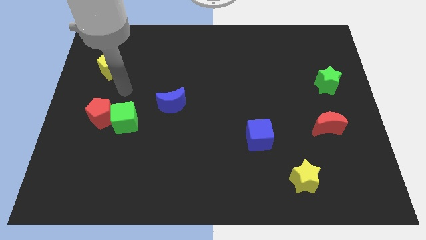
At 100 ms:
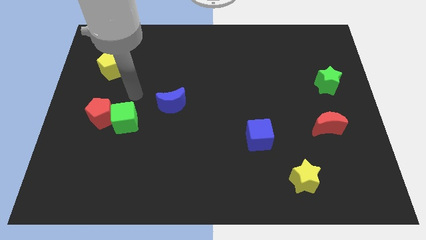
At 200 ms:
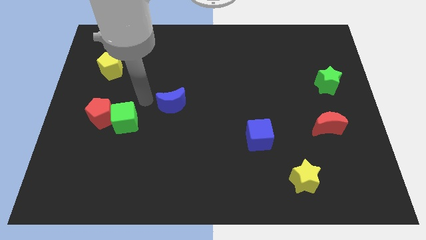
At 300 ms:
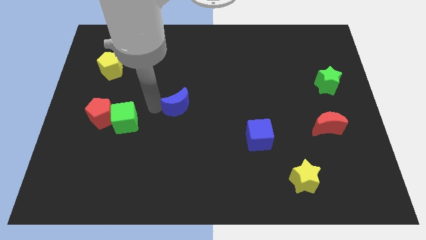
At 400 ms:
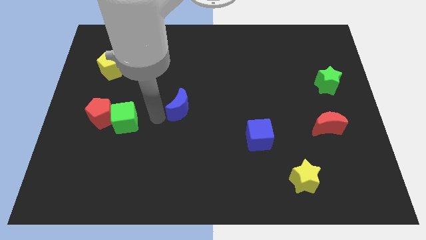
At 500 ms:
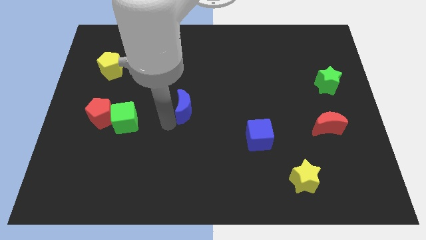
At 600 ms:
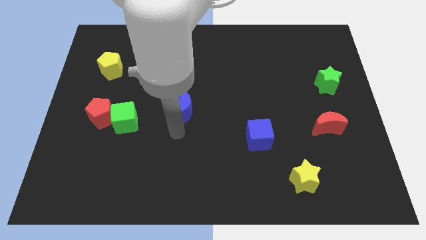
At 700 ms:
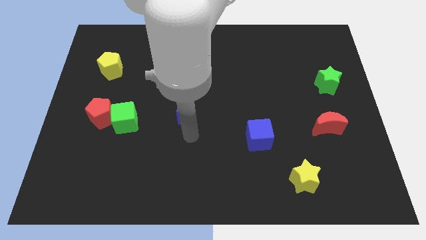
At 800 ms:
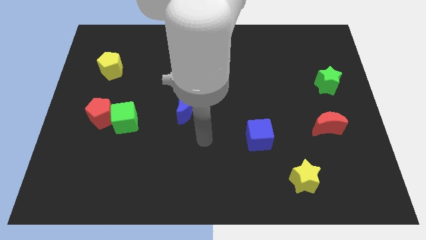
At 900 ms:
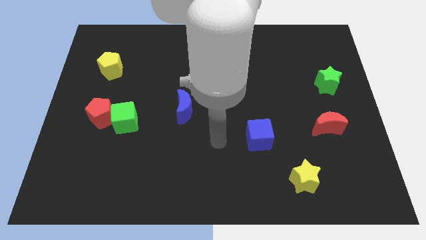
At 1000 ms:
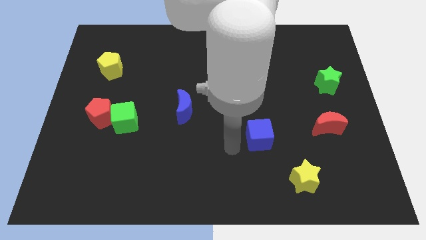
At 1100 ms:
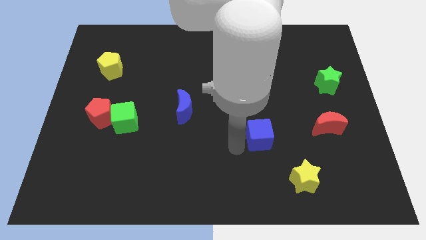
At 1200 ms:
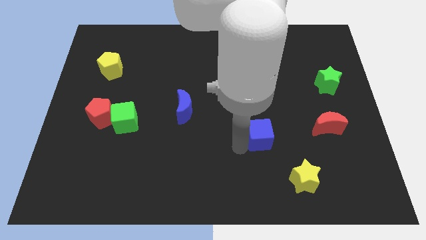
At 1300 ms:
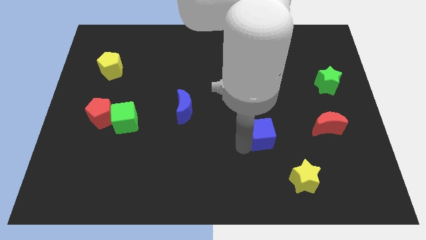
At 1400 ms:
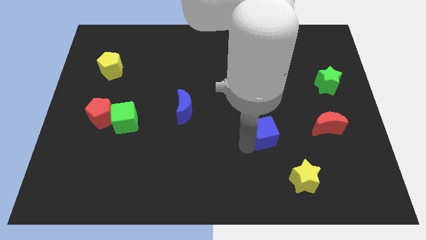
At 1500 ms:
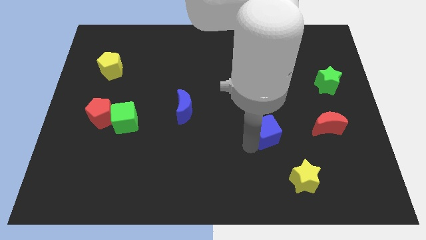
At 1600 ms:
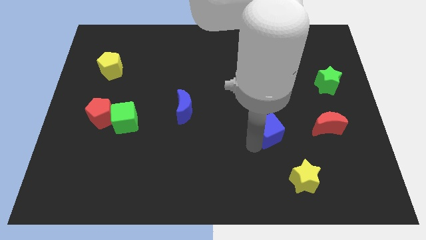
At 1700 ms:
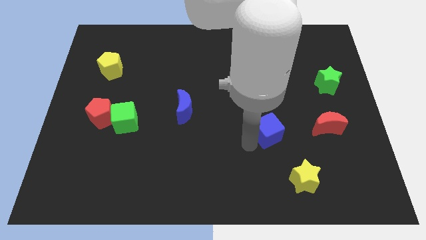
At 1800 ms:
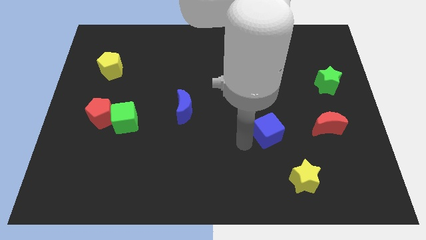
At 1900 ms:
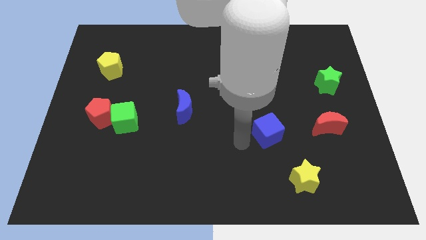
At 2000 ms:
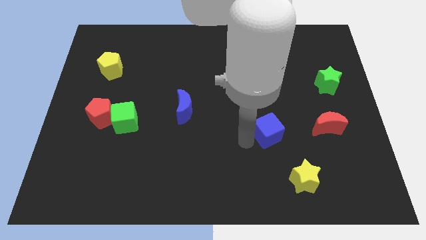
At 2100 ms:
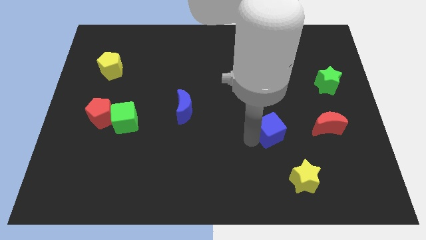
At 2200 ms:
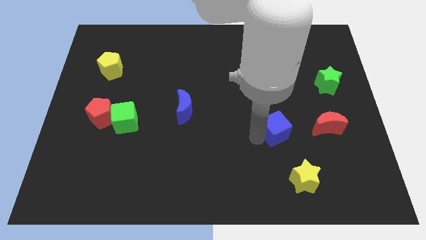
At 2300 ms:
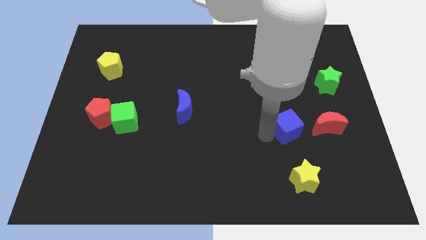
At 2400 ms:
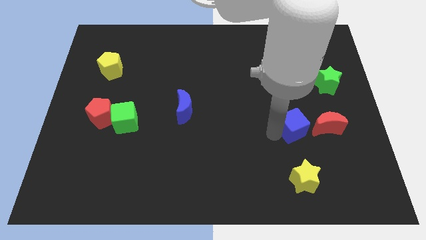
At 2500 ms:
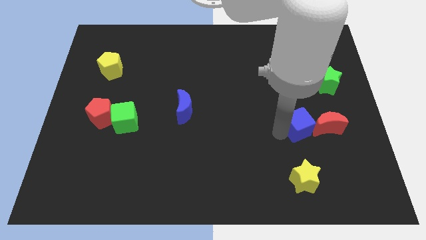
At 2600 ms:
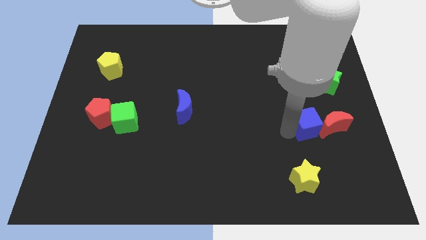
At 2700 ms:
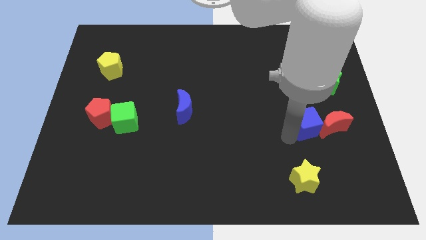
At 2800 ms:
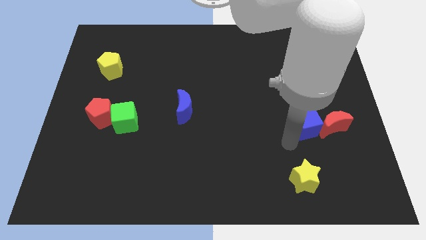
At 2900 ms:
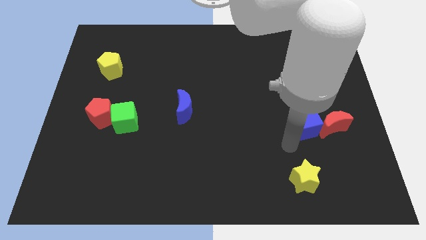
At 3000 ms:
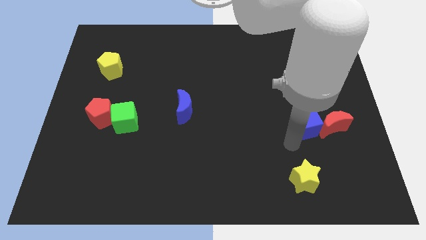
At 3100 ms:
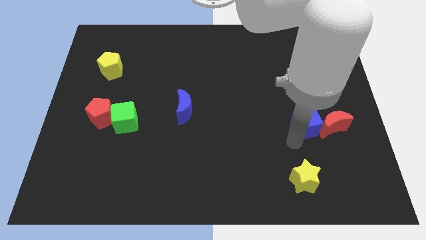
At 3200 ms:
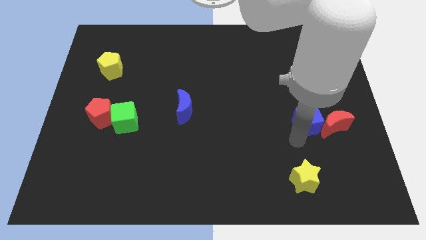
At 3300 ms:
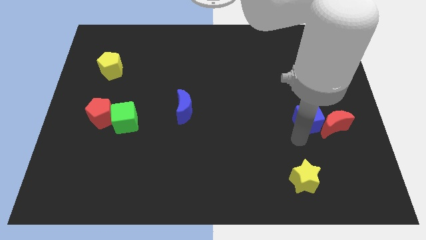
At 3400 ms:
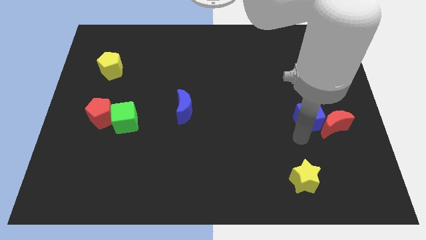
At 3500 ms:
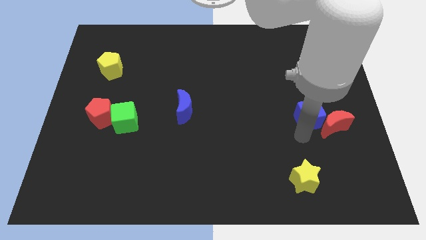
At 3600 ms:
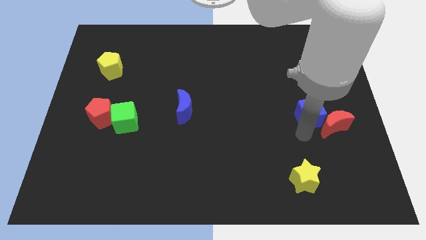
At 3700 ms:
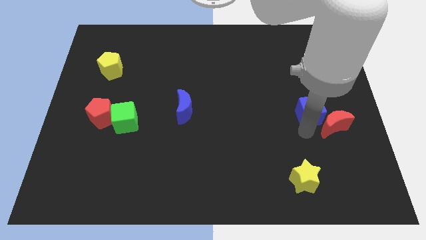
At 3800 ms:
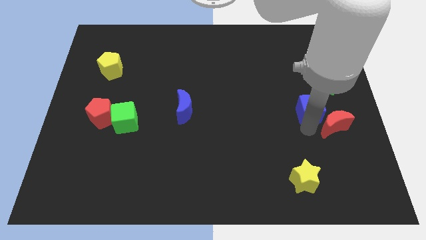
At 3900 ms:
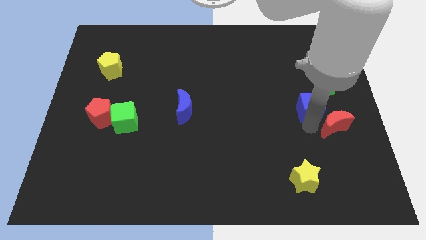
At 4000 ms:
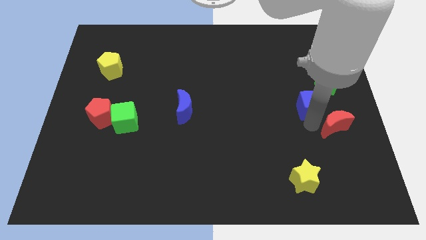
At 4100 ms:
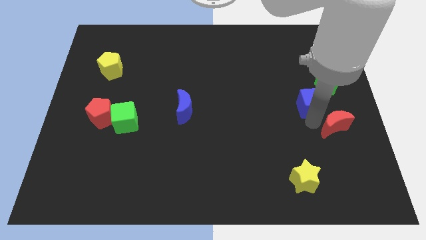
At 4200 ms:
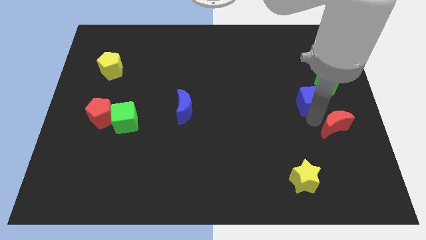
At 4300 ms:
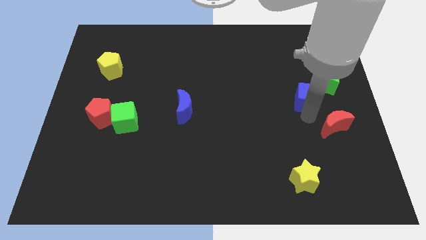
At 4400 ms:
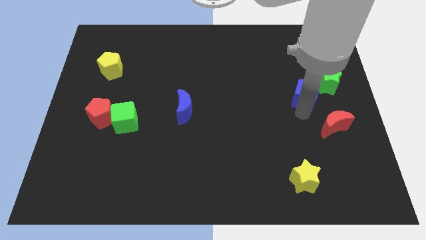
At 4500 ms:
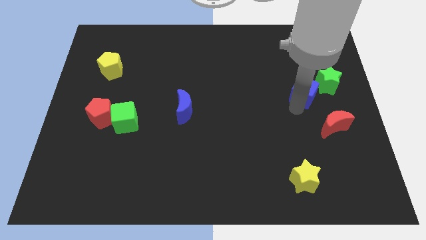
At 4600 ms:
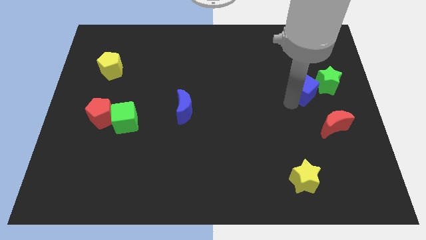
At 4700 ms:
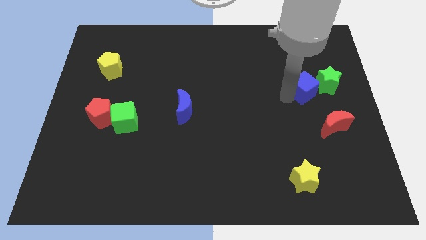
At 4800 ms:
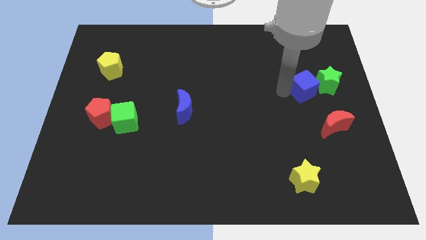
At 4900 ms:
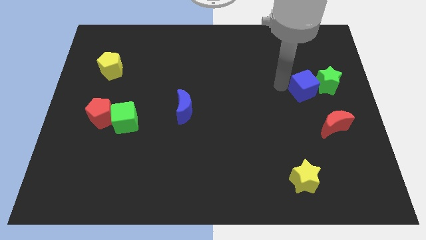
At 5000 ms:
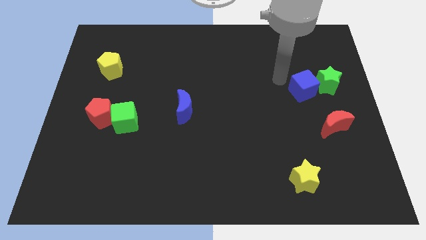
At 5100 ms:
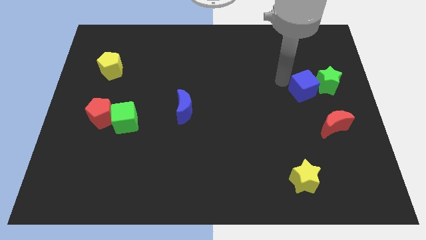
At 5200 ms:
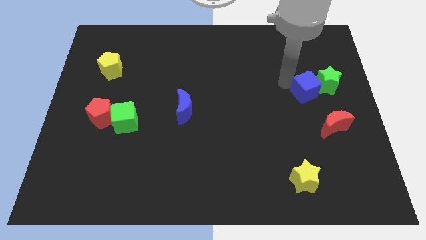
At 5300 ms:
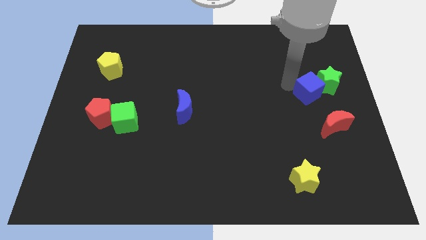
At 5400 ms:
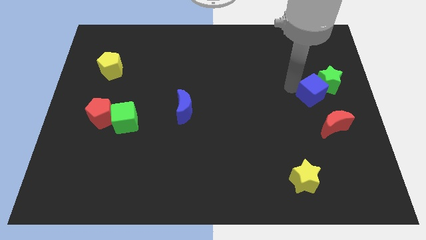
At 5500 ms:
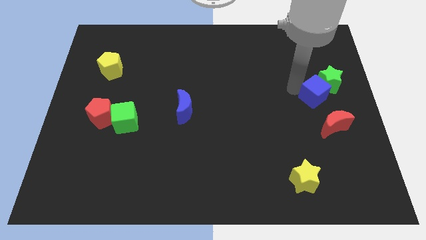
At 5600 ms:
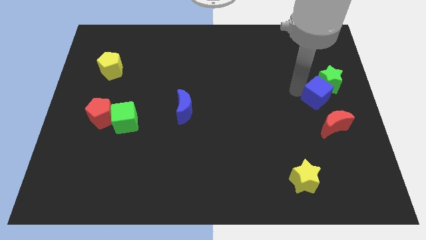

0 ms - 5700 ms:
slide the blue cube to the center right

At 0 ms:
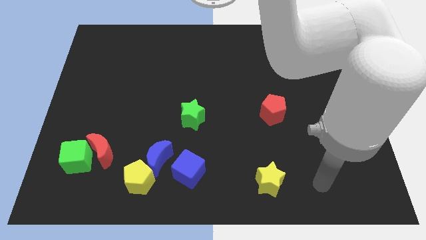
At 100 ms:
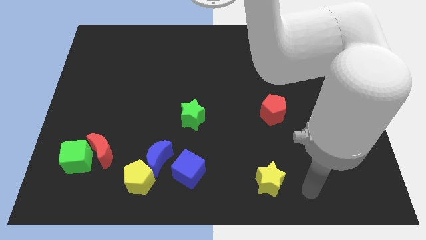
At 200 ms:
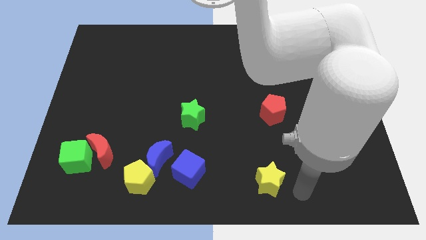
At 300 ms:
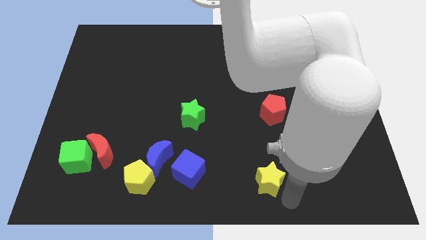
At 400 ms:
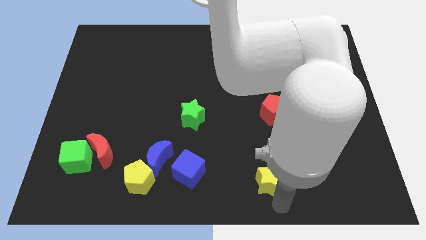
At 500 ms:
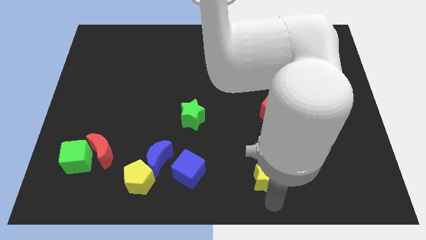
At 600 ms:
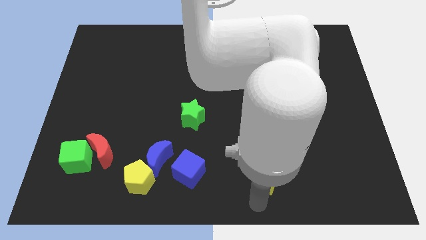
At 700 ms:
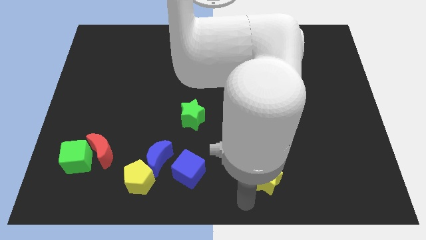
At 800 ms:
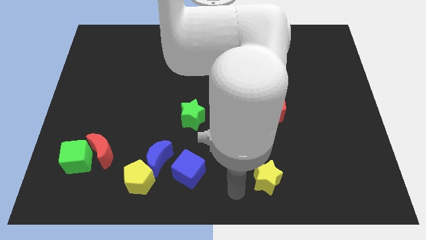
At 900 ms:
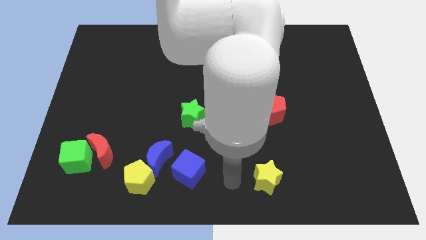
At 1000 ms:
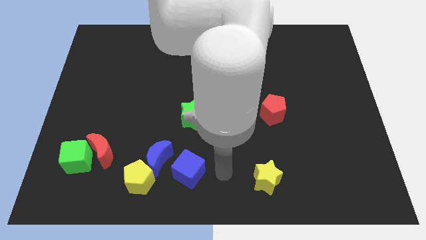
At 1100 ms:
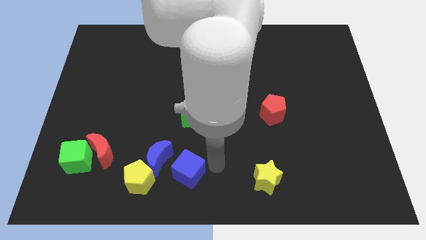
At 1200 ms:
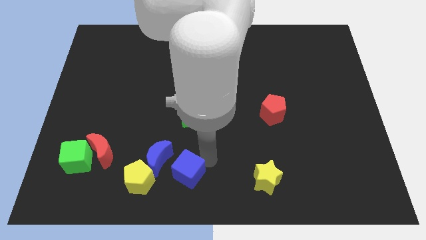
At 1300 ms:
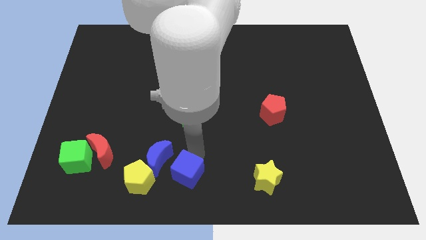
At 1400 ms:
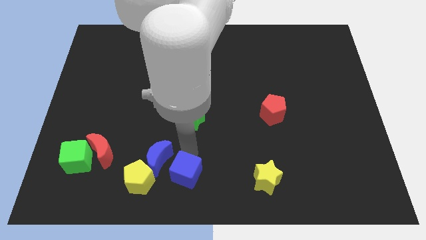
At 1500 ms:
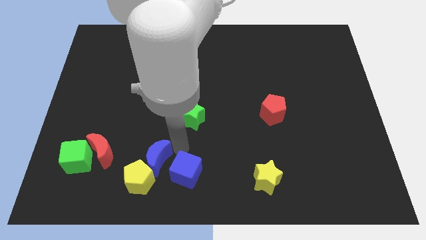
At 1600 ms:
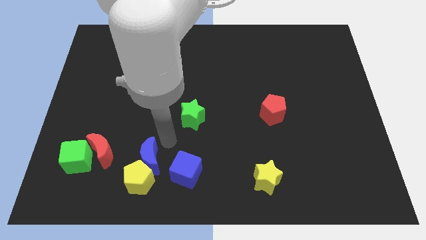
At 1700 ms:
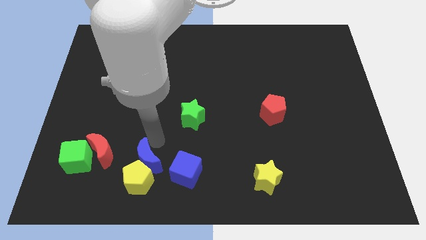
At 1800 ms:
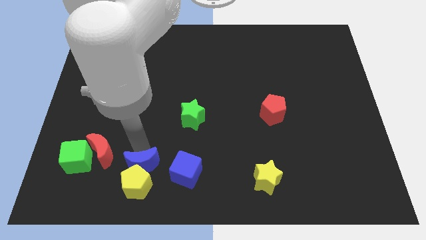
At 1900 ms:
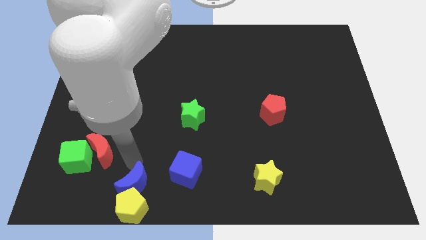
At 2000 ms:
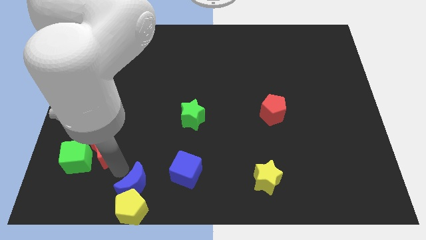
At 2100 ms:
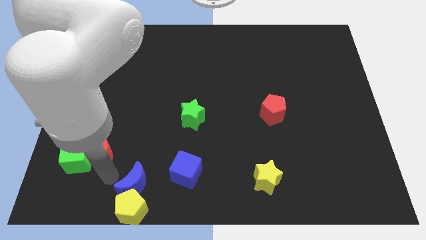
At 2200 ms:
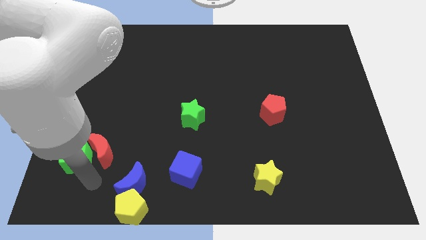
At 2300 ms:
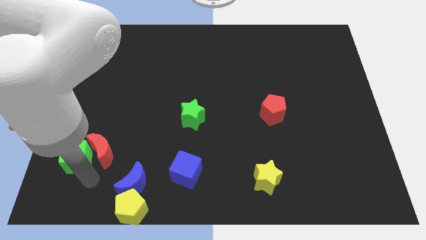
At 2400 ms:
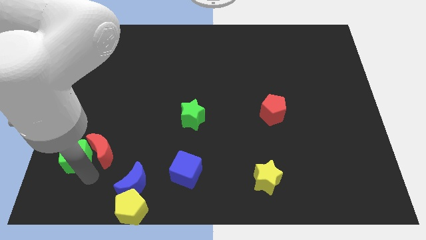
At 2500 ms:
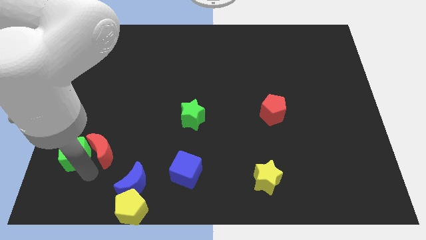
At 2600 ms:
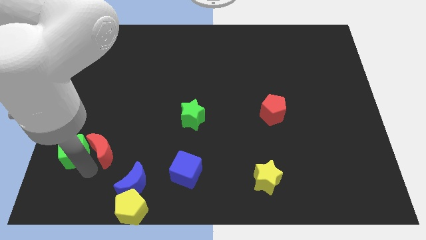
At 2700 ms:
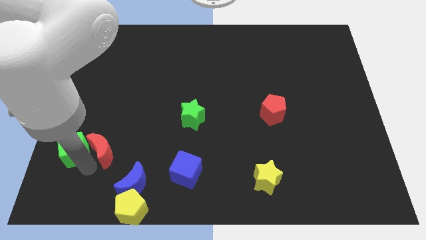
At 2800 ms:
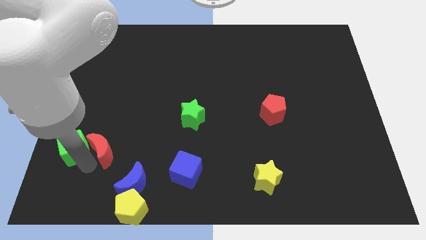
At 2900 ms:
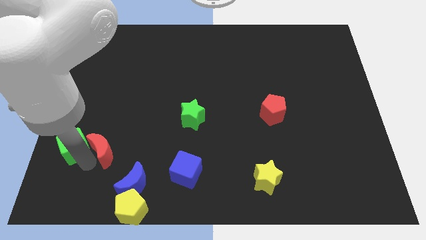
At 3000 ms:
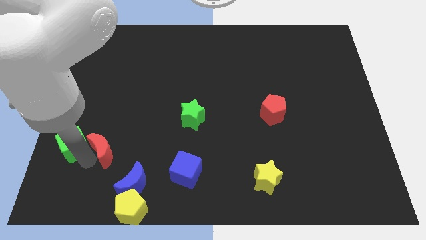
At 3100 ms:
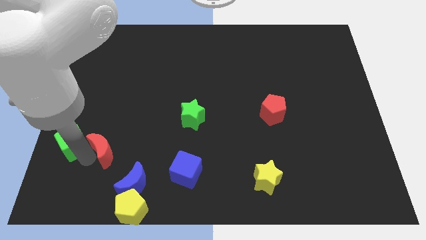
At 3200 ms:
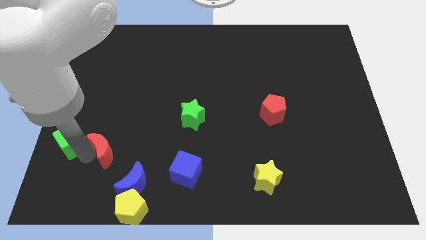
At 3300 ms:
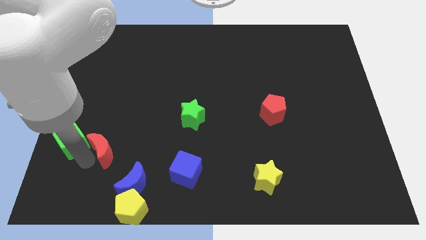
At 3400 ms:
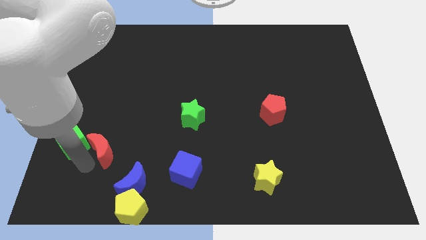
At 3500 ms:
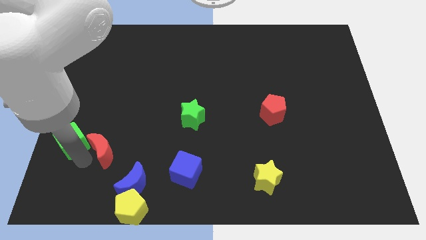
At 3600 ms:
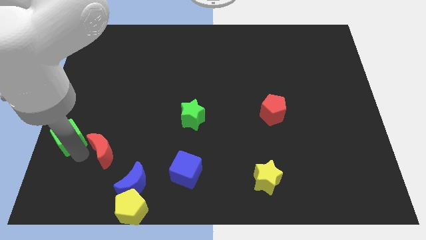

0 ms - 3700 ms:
slide the green cube to the left side
